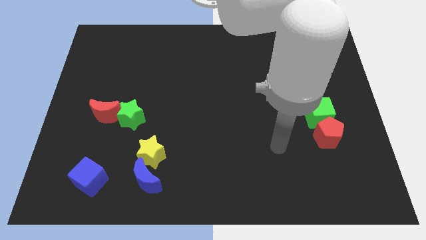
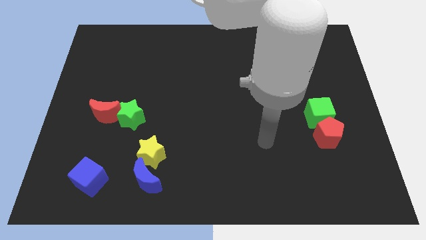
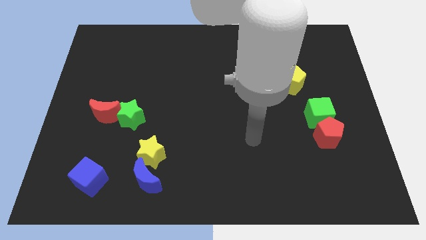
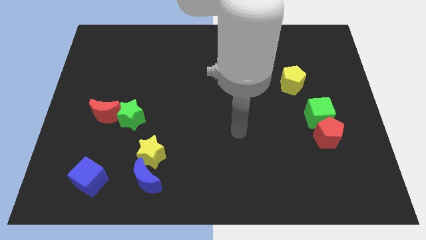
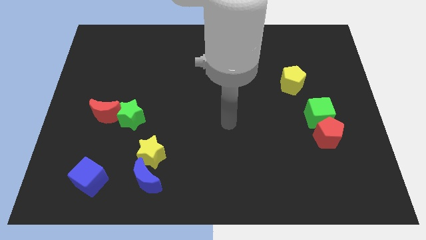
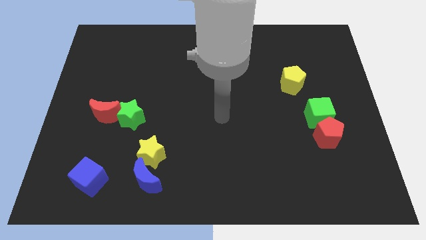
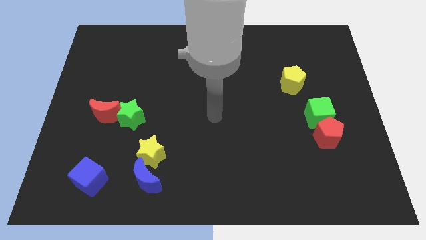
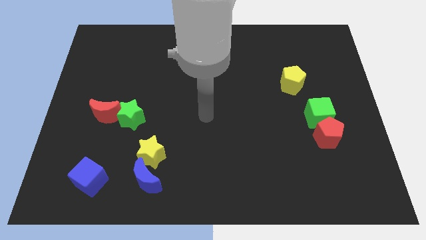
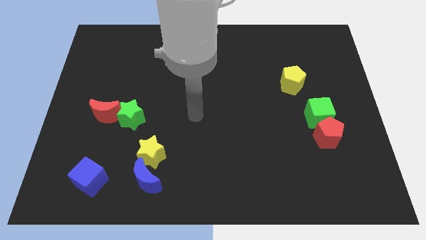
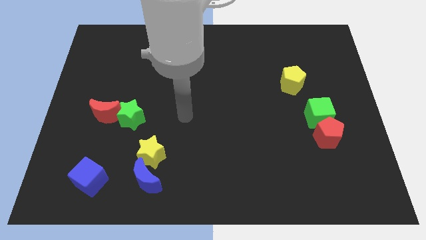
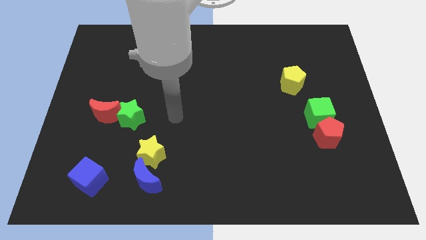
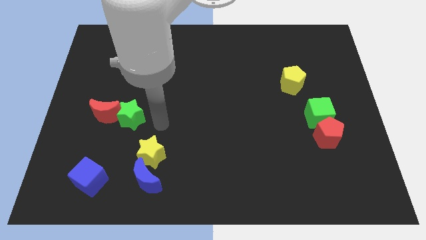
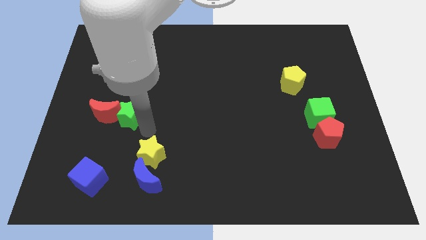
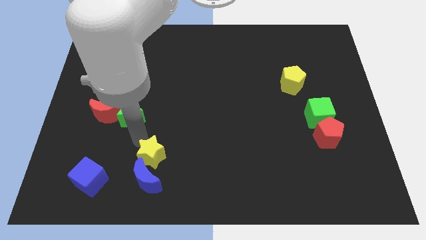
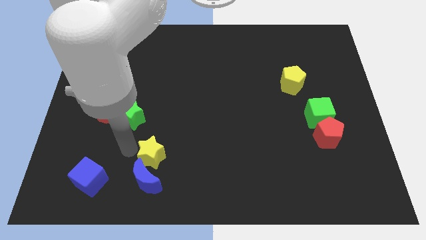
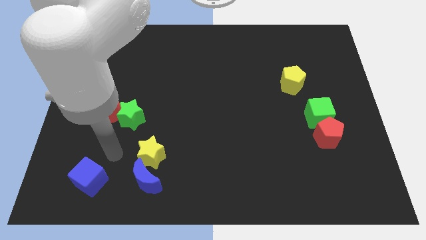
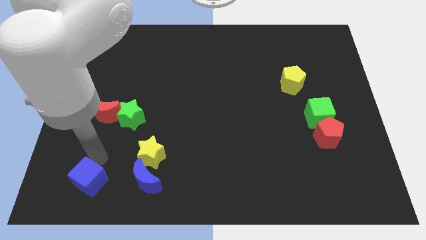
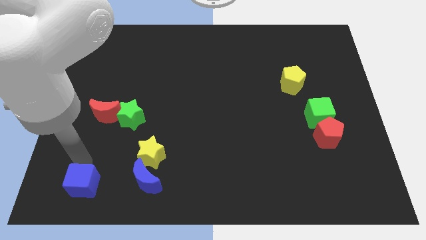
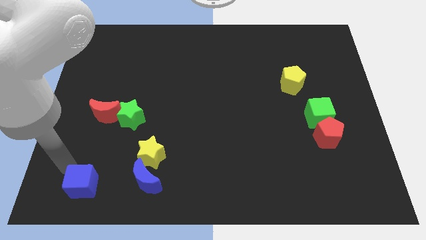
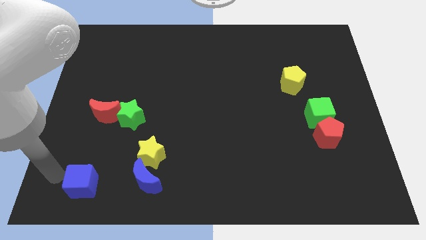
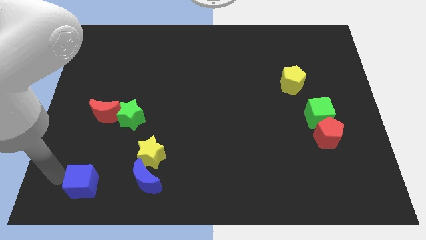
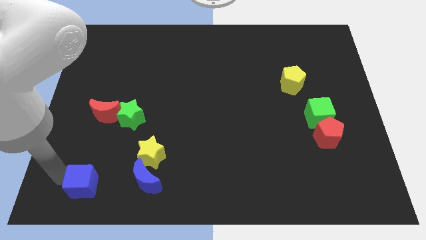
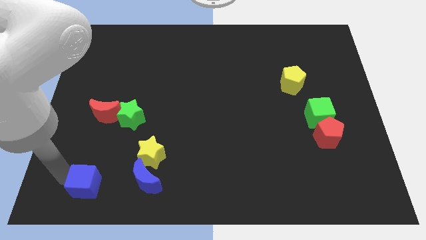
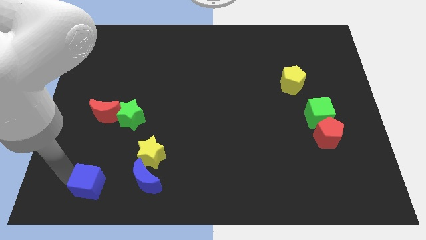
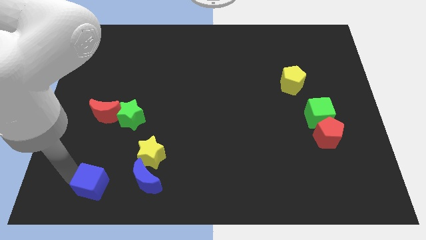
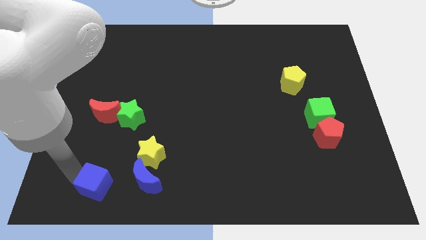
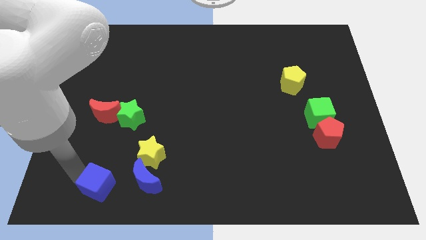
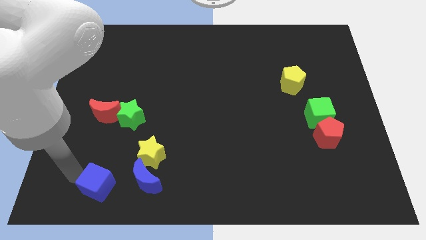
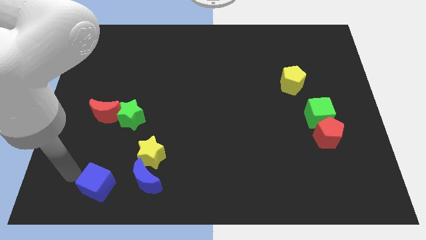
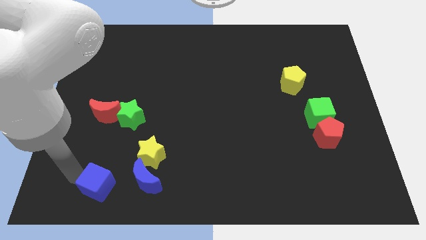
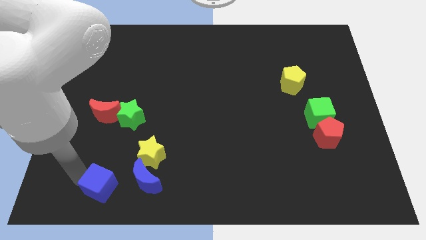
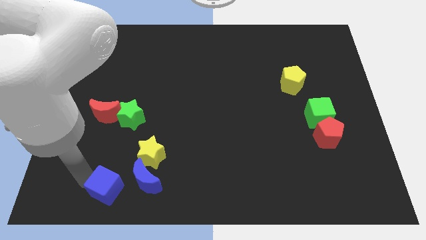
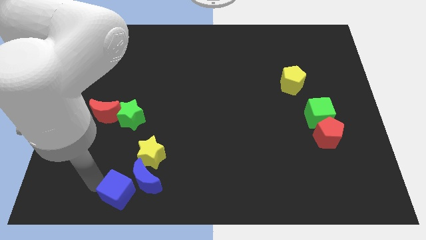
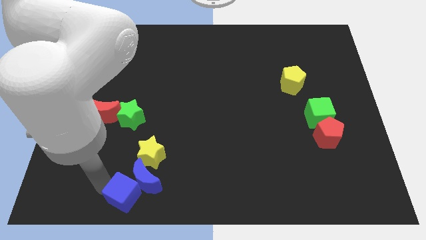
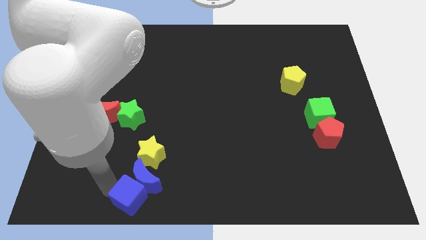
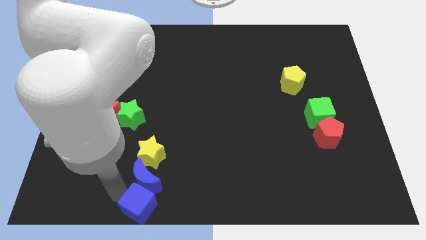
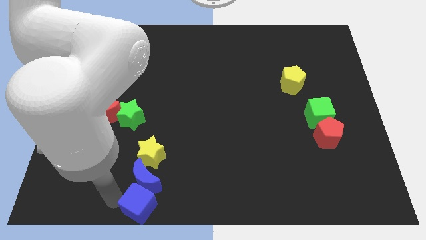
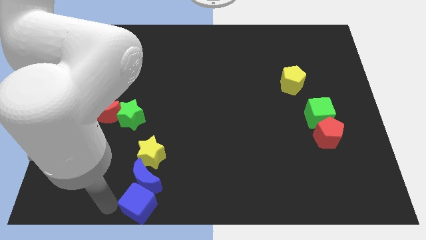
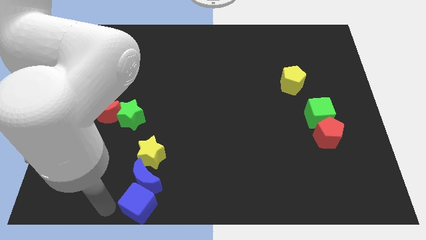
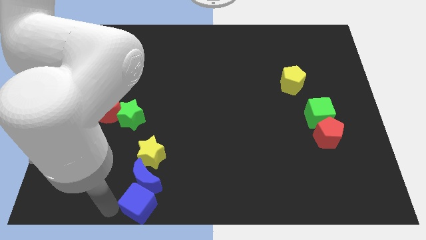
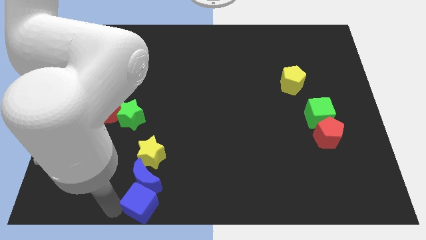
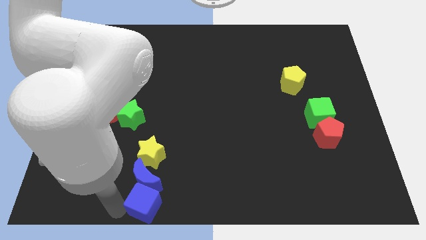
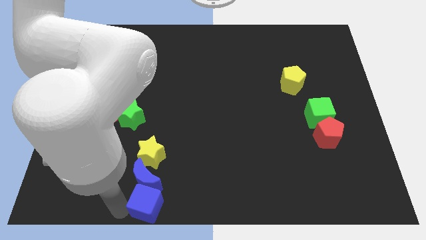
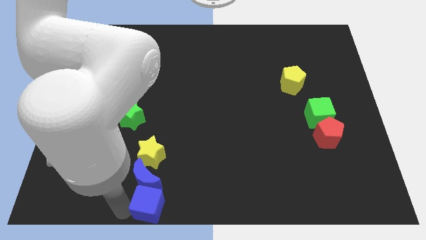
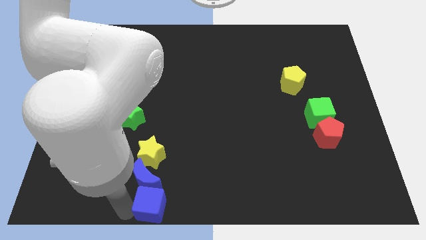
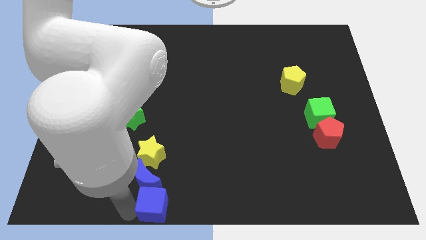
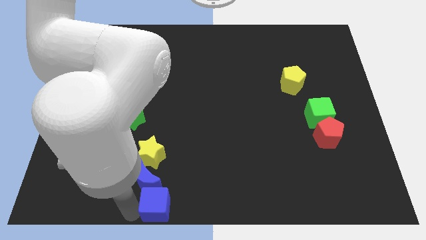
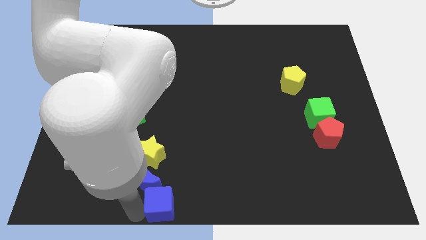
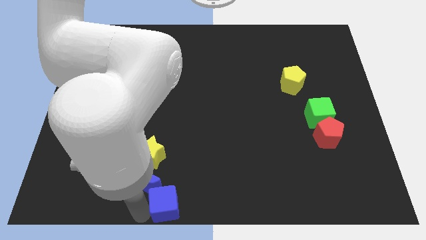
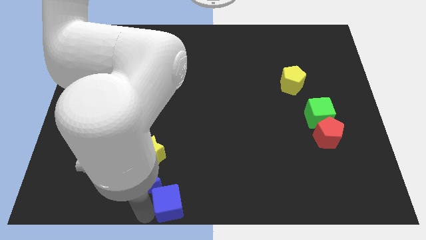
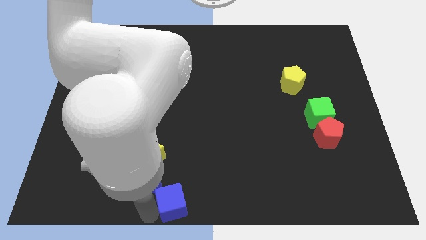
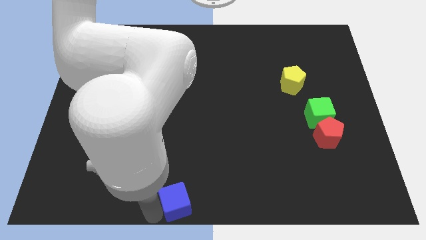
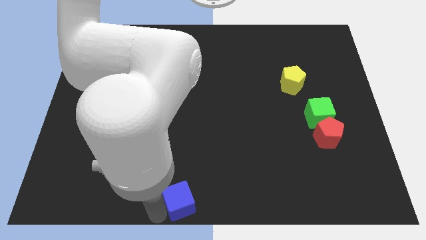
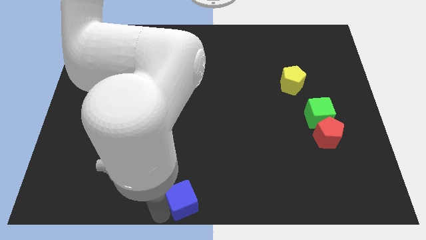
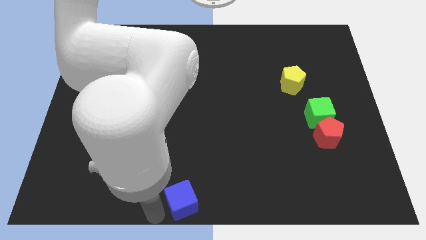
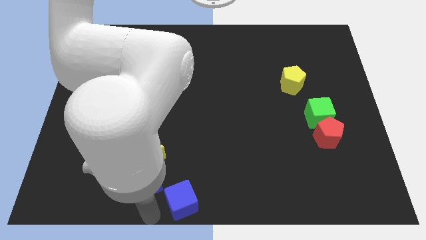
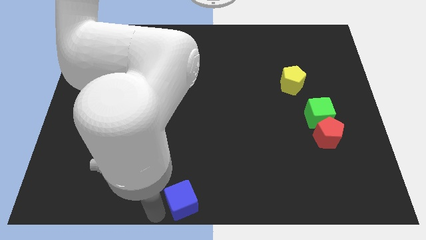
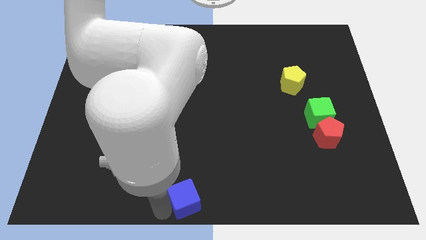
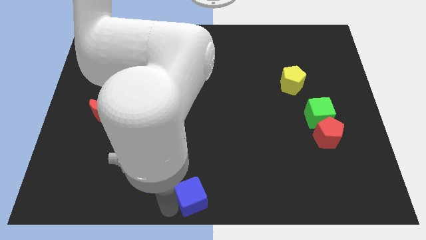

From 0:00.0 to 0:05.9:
move the blue cube right

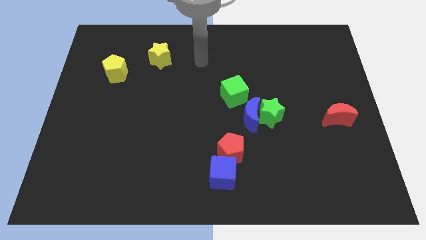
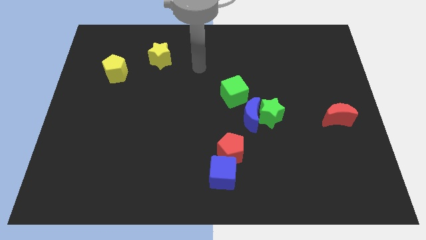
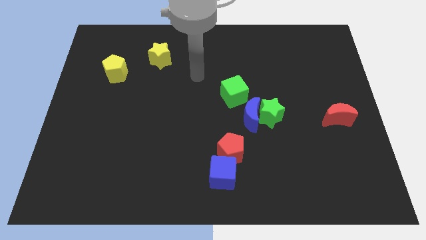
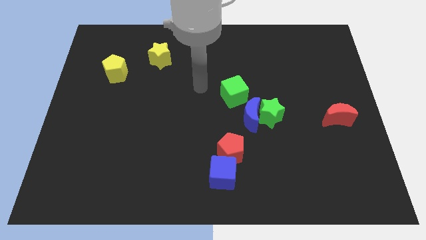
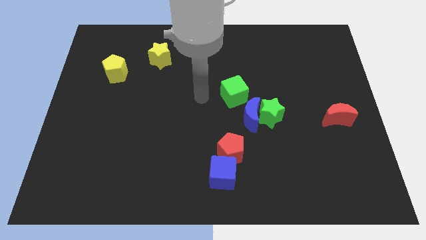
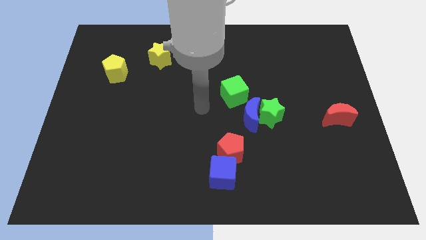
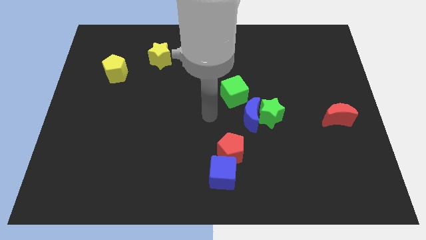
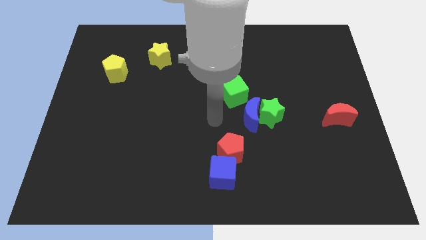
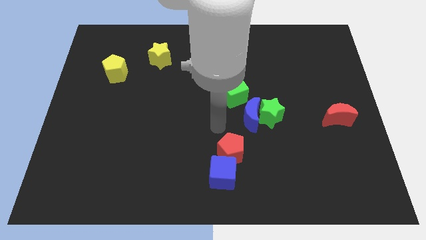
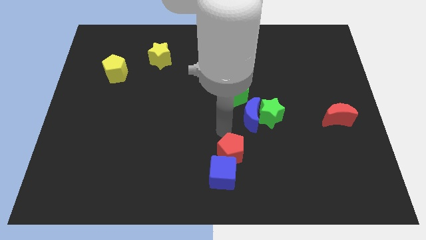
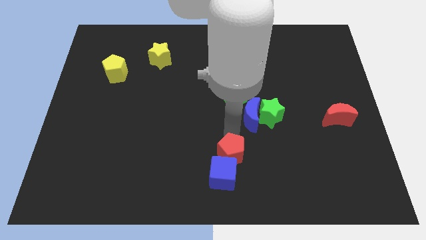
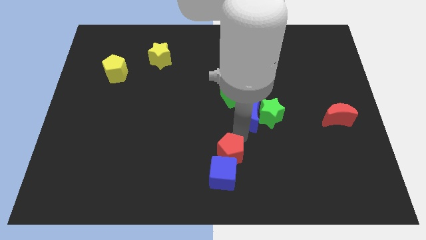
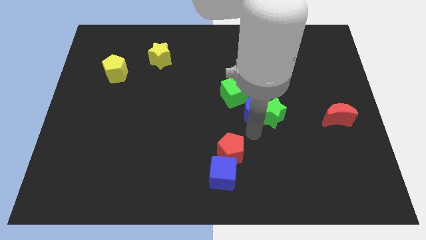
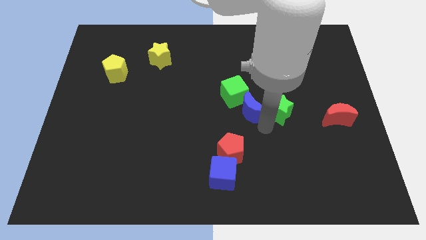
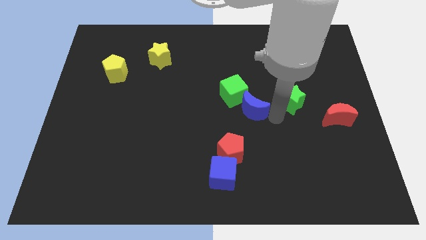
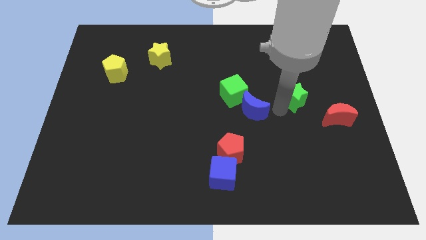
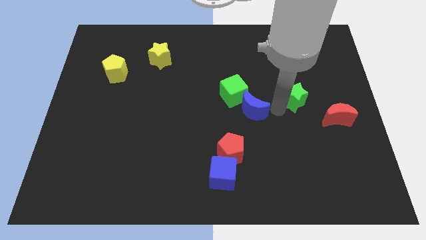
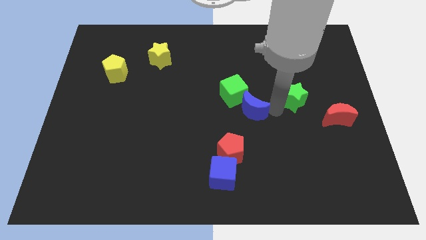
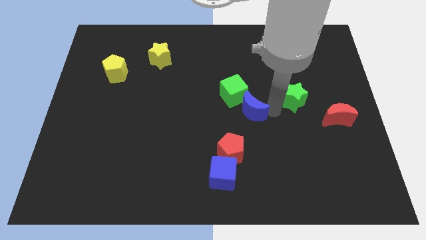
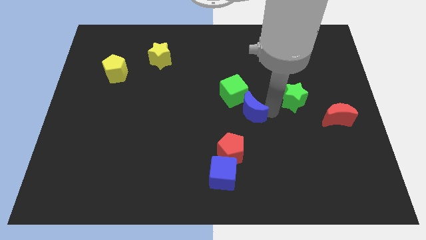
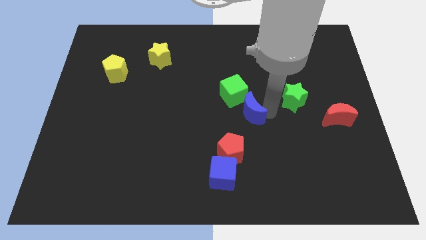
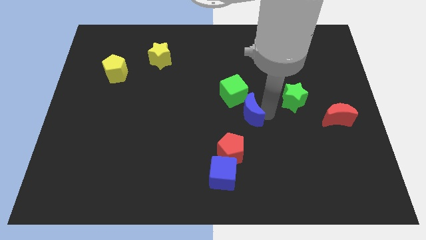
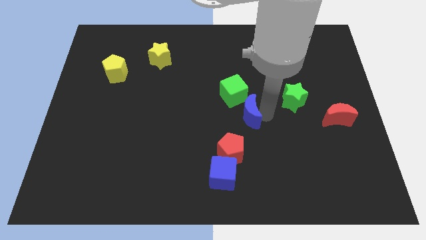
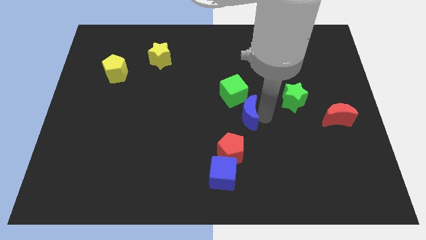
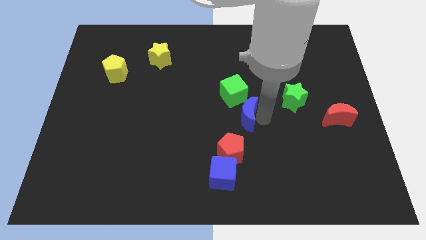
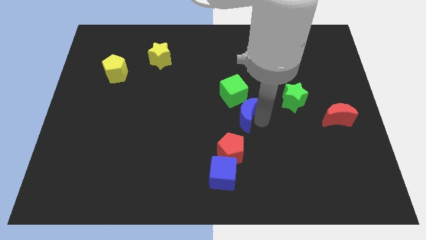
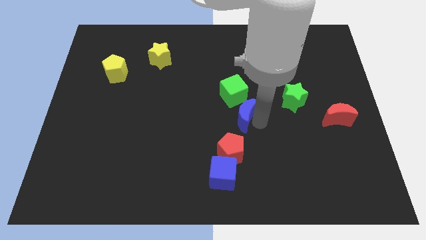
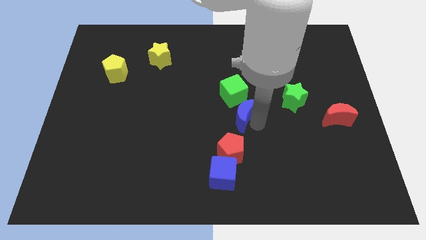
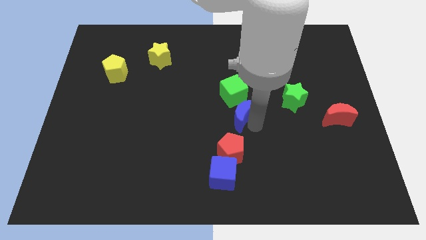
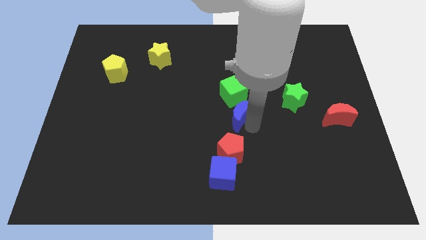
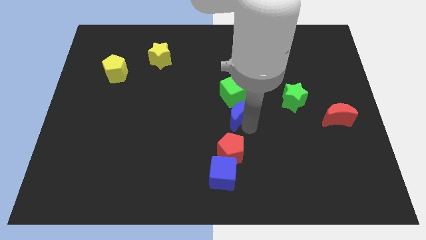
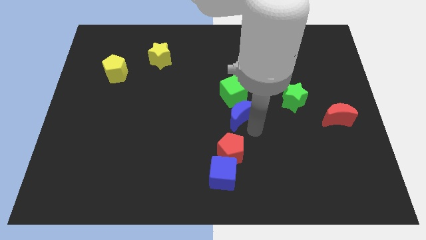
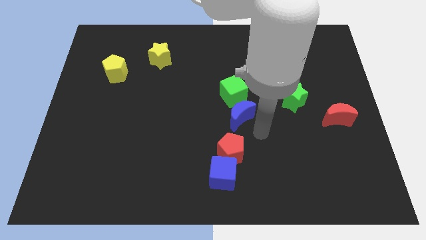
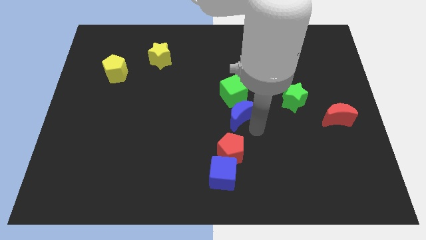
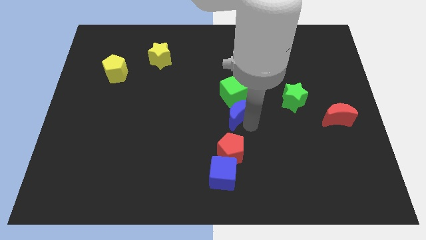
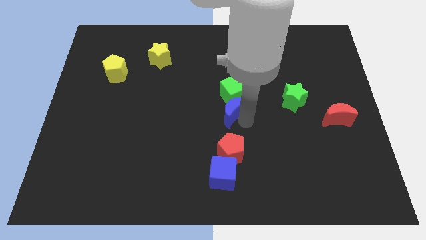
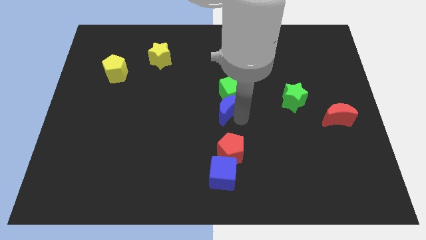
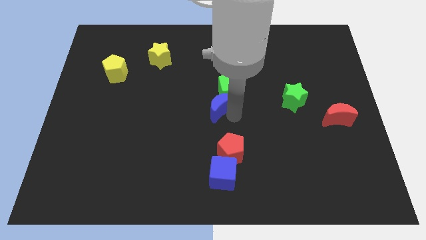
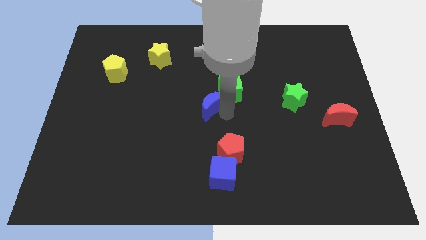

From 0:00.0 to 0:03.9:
slide the blue moon upwards and left diagonally a little bit
